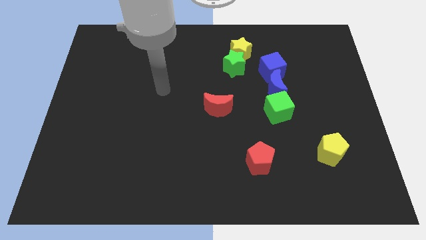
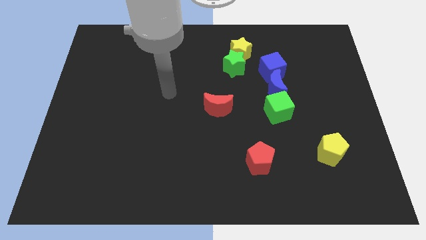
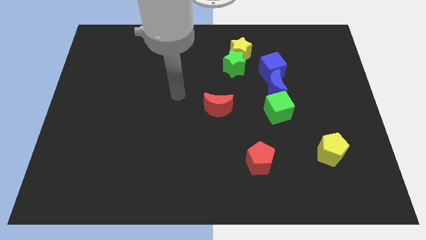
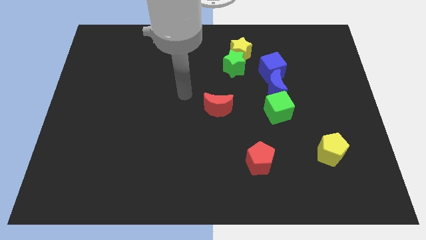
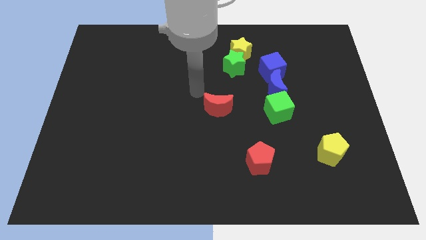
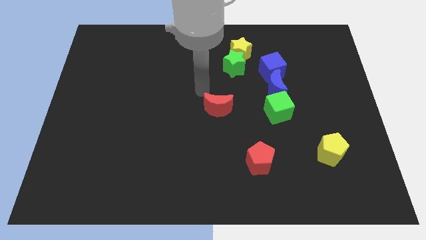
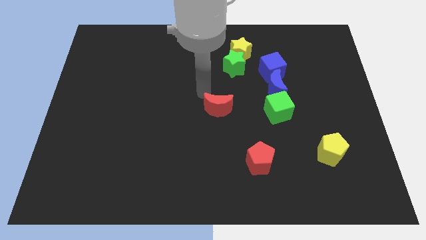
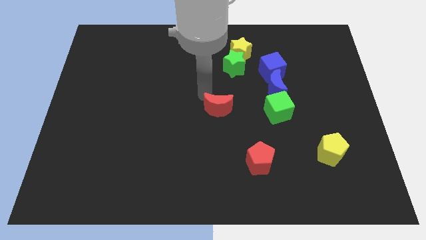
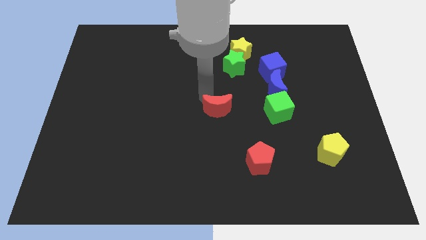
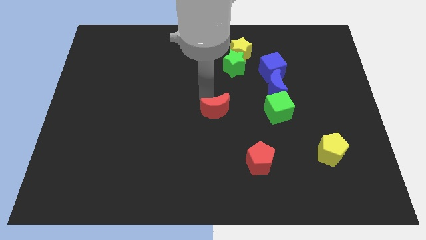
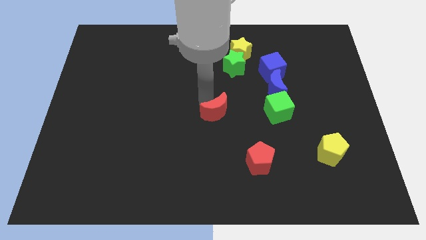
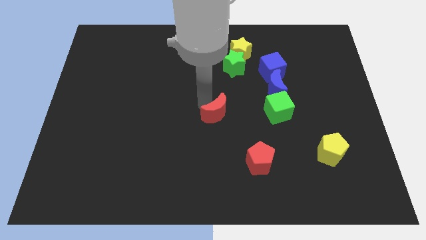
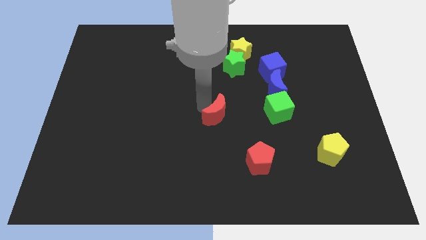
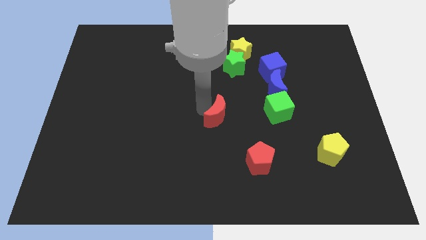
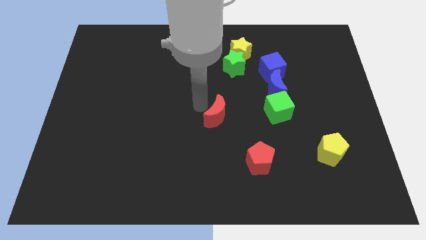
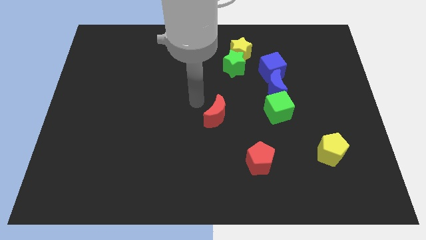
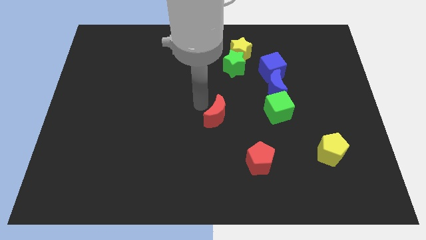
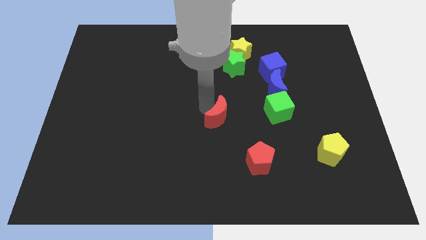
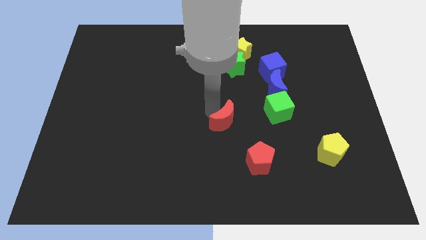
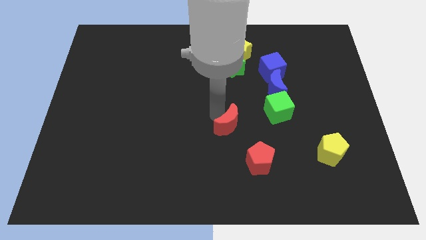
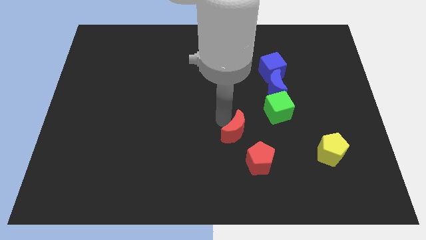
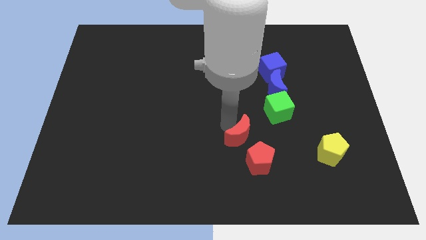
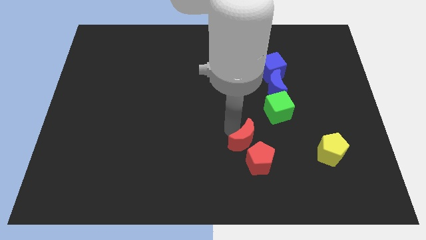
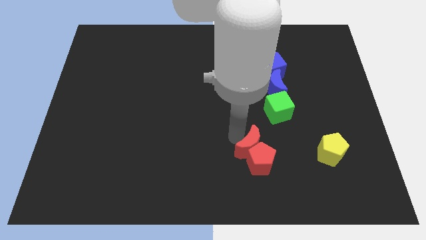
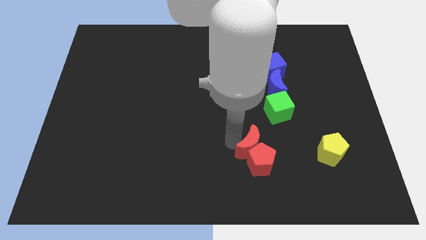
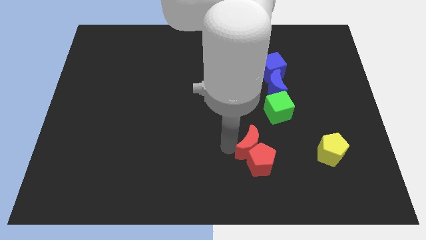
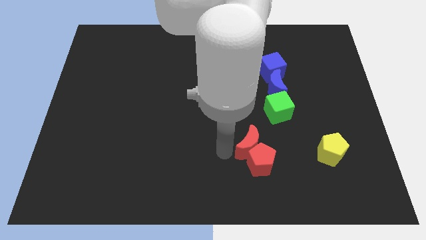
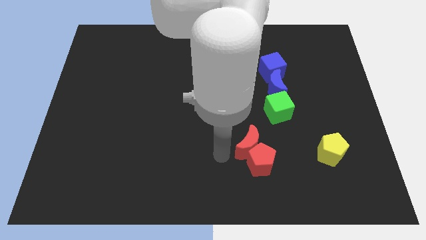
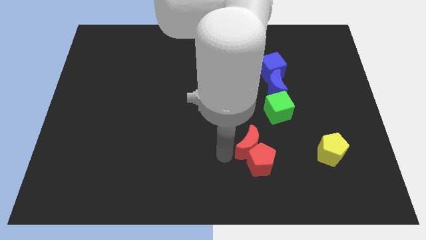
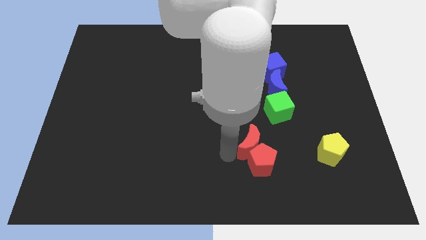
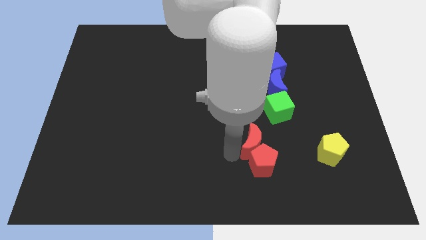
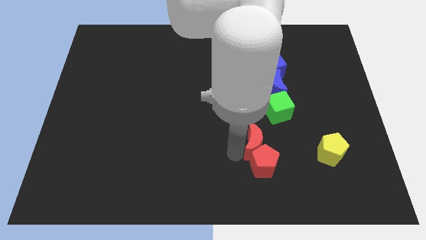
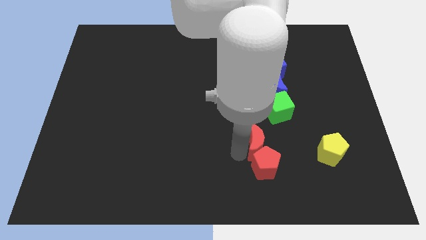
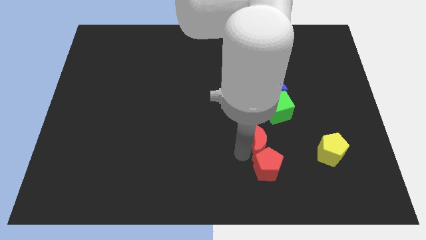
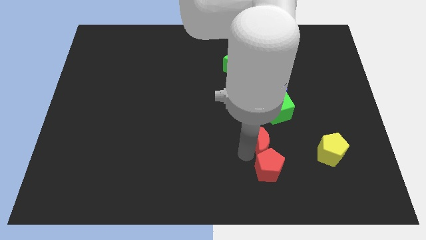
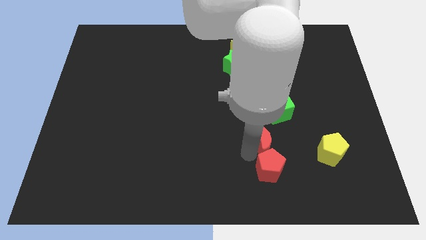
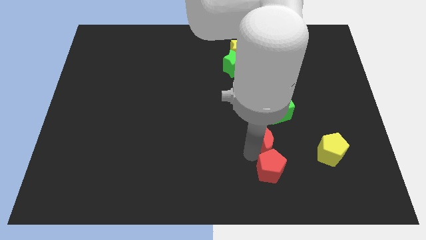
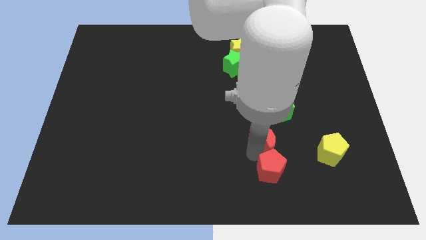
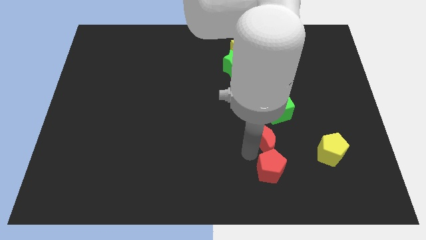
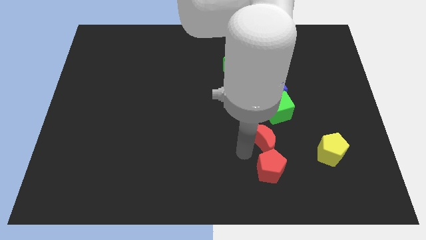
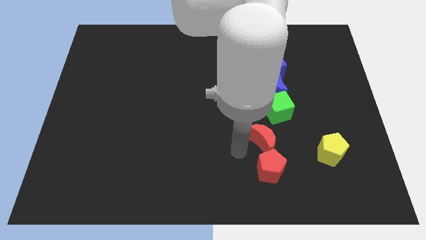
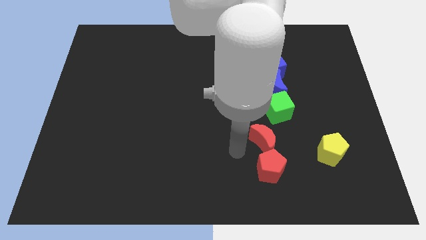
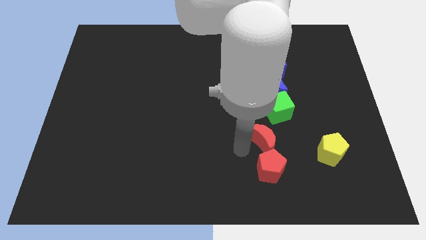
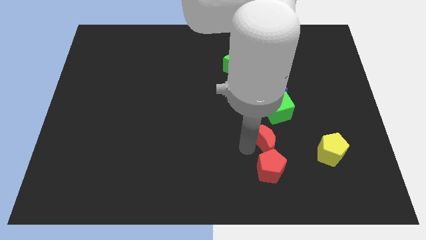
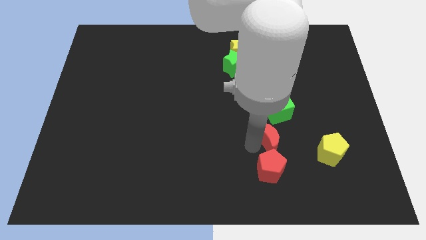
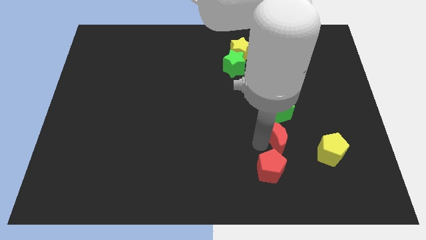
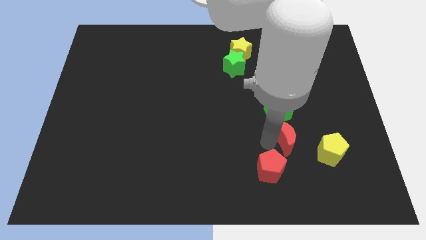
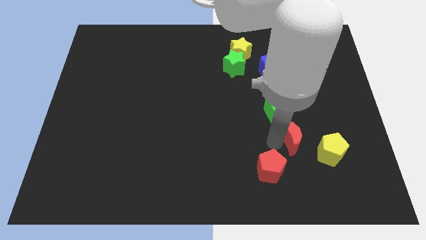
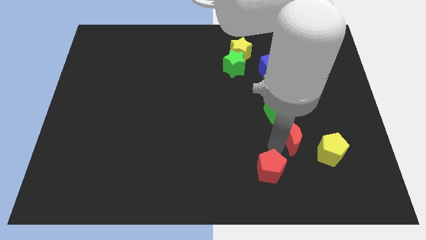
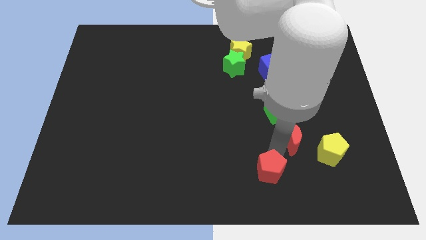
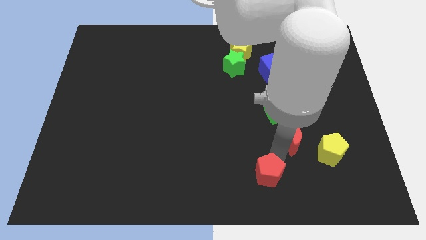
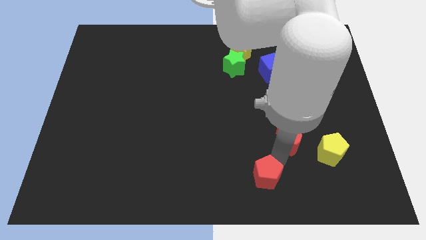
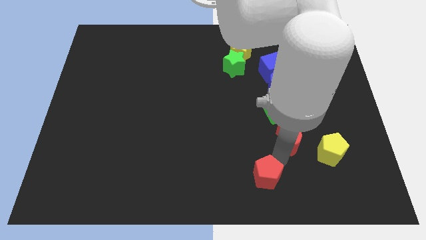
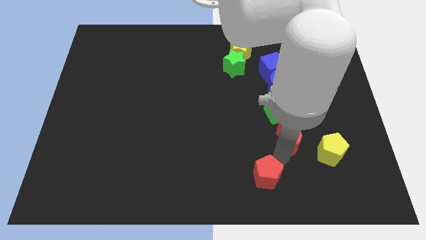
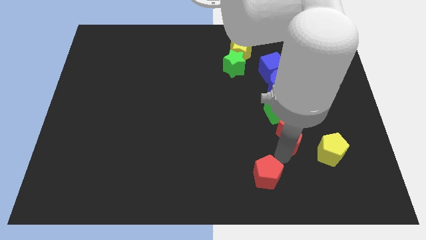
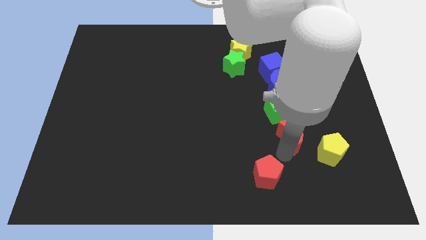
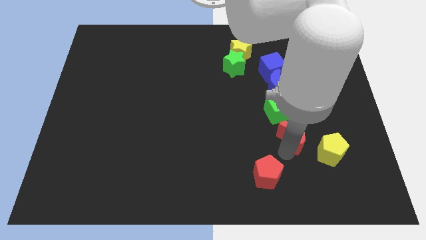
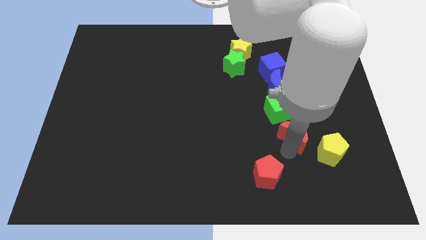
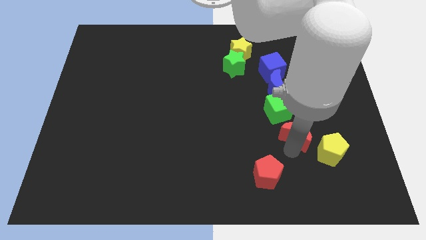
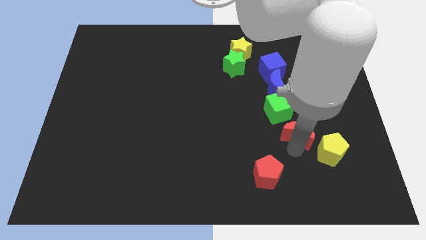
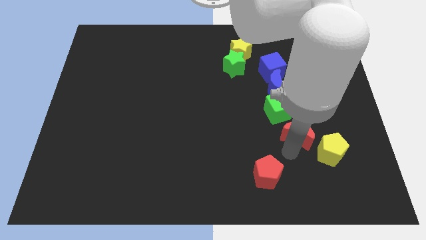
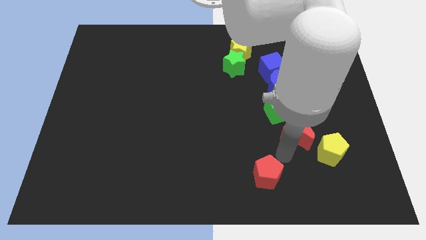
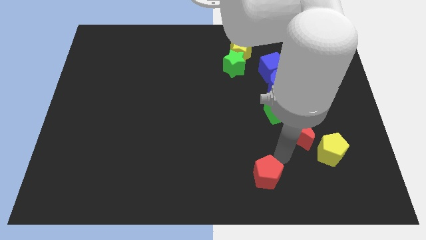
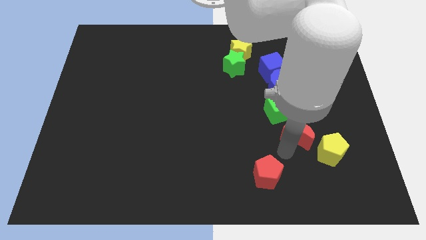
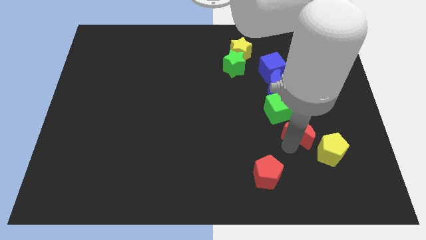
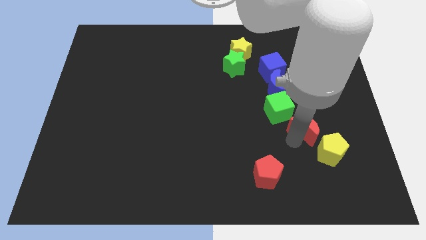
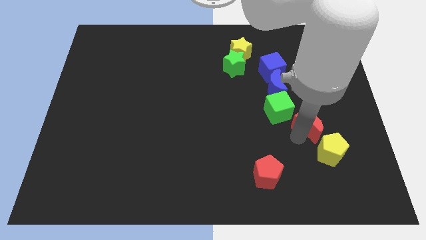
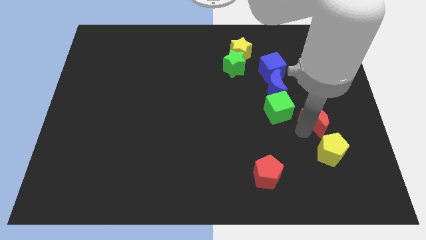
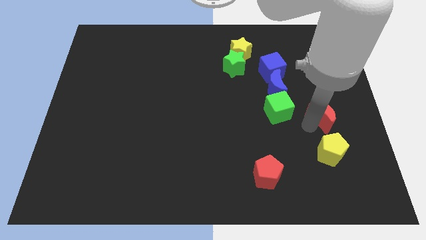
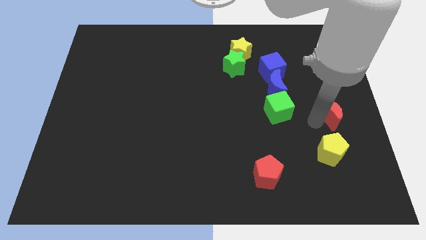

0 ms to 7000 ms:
slide the red moon to the right side of the board
